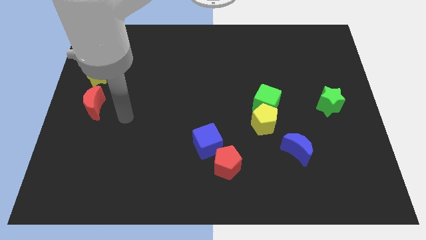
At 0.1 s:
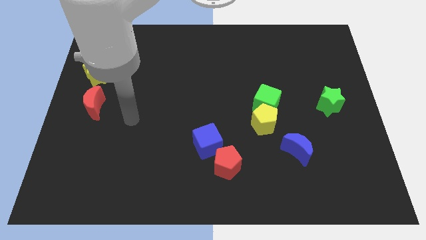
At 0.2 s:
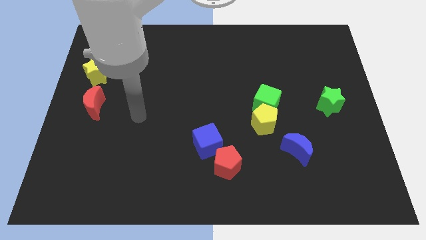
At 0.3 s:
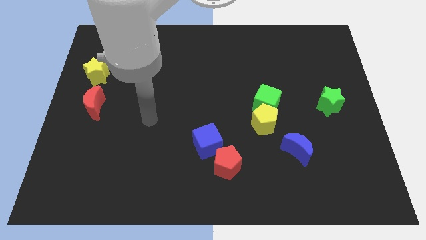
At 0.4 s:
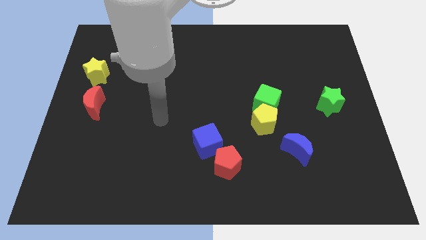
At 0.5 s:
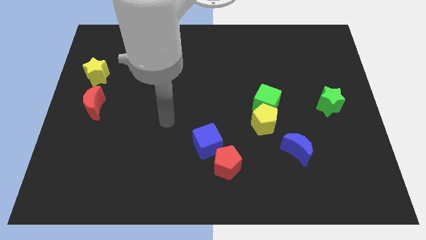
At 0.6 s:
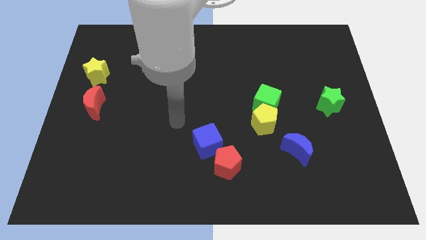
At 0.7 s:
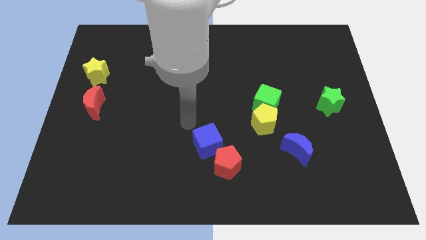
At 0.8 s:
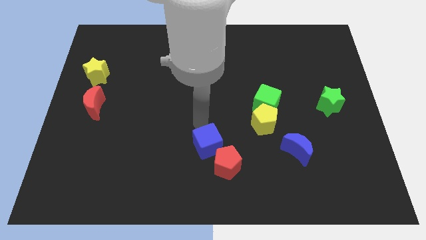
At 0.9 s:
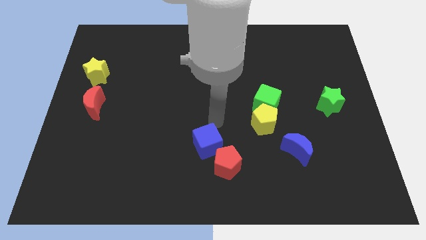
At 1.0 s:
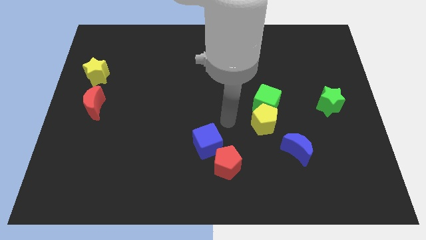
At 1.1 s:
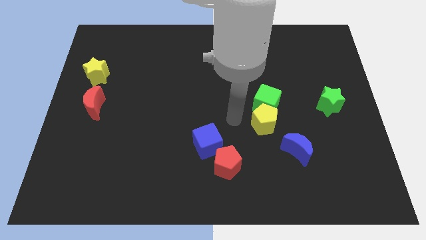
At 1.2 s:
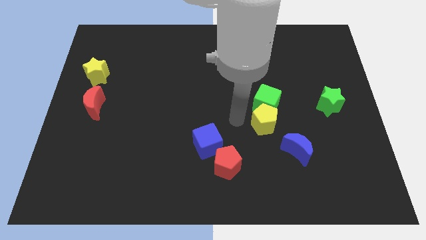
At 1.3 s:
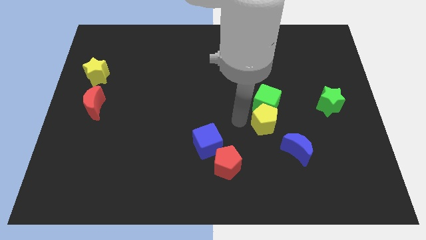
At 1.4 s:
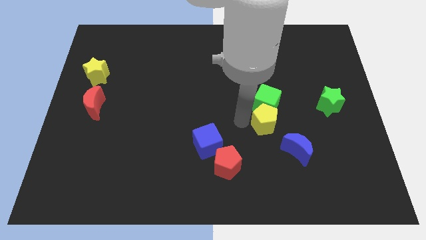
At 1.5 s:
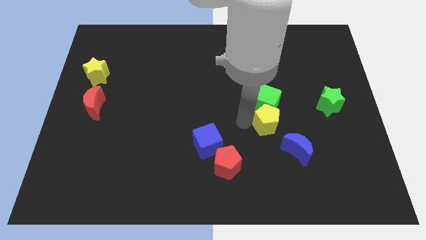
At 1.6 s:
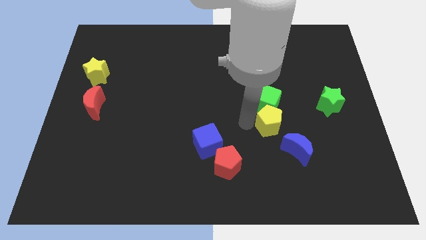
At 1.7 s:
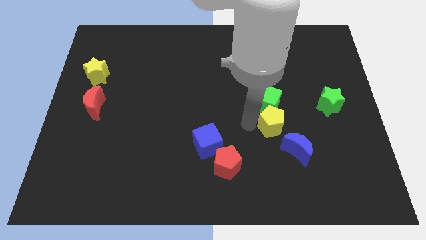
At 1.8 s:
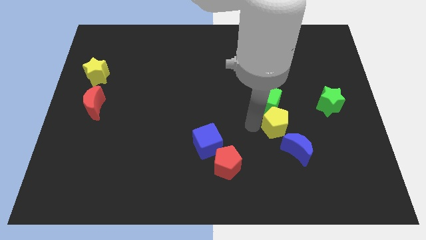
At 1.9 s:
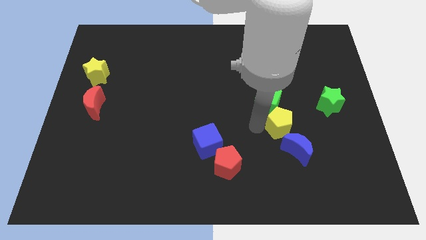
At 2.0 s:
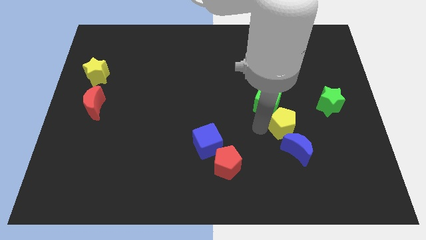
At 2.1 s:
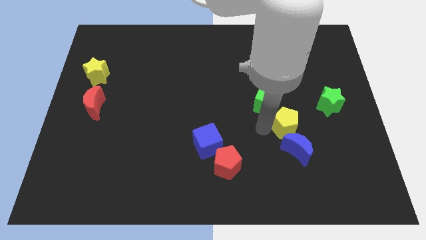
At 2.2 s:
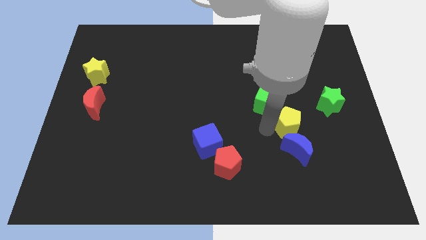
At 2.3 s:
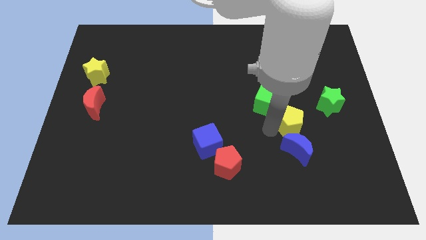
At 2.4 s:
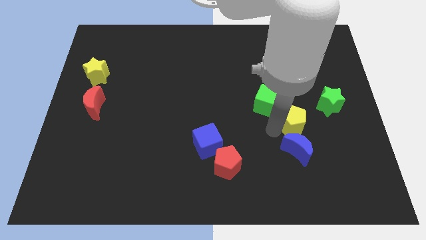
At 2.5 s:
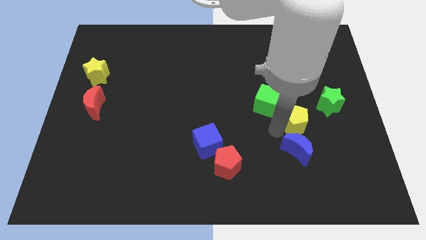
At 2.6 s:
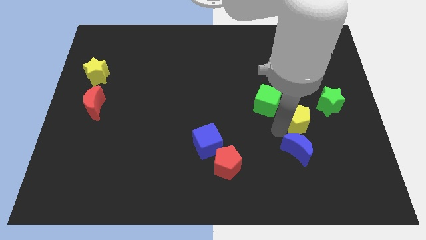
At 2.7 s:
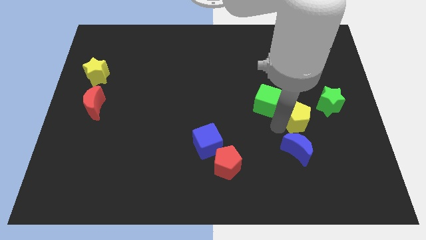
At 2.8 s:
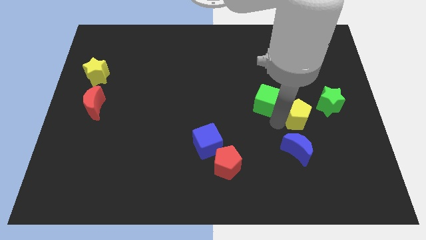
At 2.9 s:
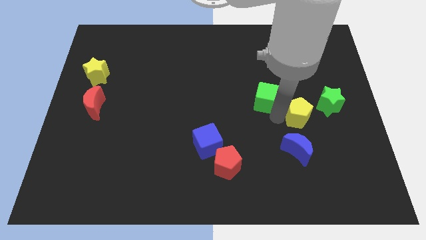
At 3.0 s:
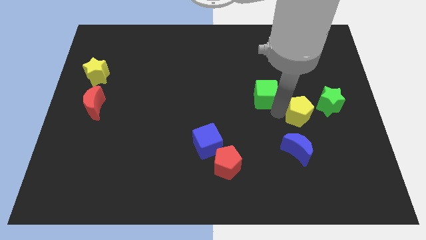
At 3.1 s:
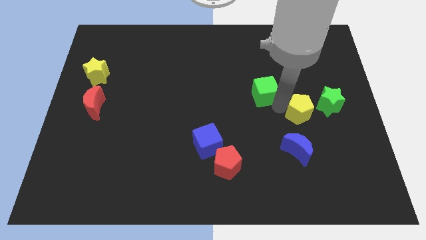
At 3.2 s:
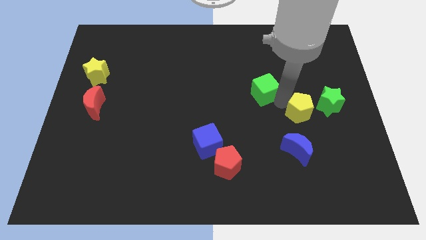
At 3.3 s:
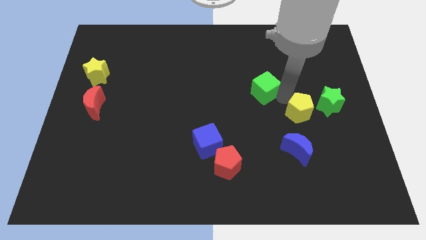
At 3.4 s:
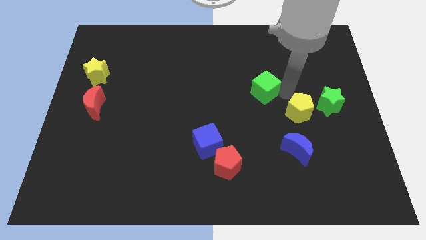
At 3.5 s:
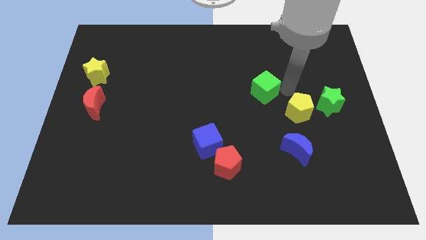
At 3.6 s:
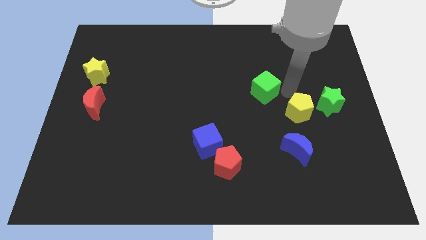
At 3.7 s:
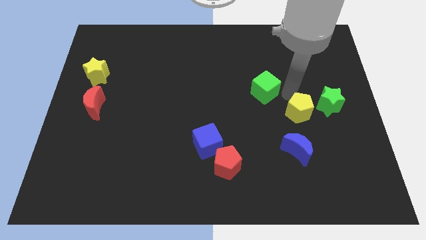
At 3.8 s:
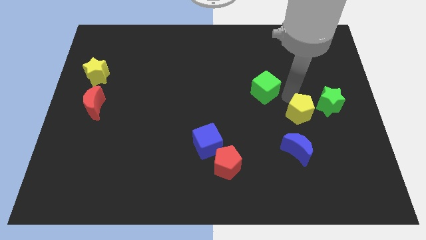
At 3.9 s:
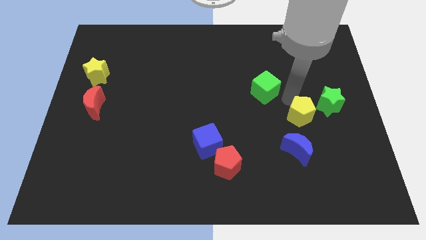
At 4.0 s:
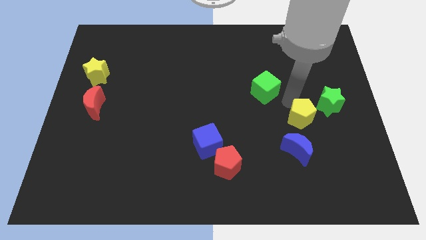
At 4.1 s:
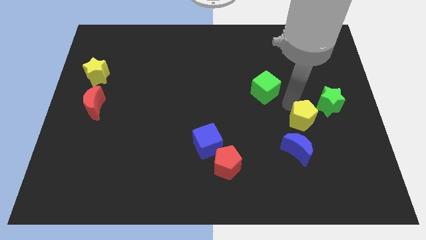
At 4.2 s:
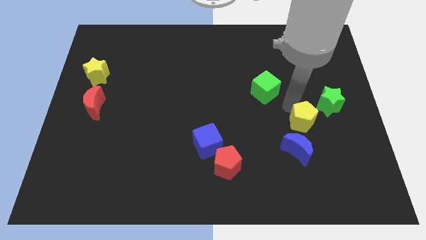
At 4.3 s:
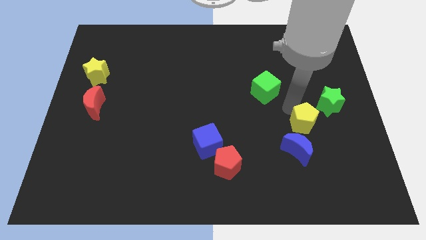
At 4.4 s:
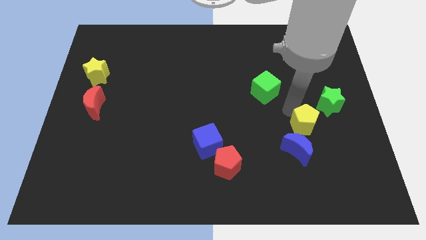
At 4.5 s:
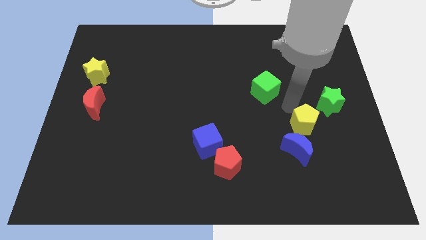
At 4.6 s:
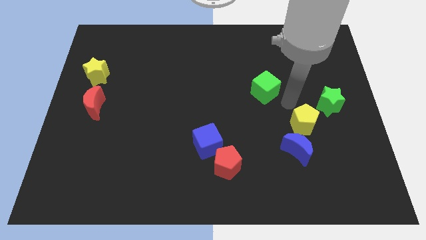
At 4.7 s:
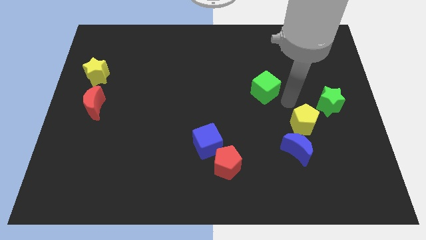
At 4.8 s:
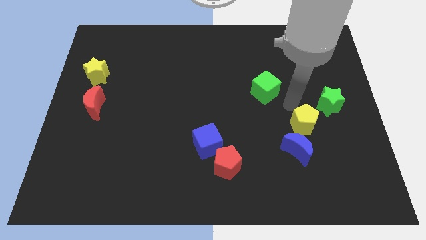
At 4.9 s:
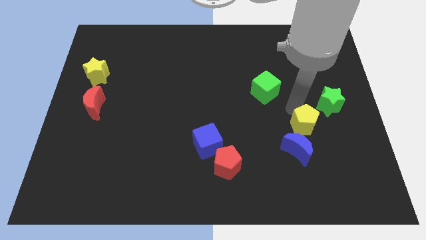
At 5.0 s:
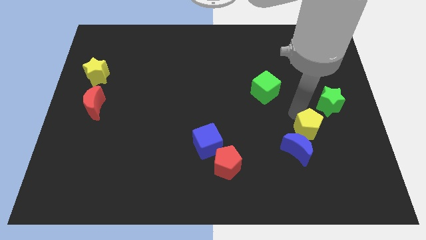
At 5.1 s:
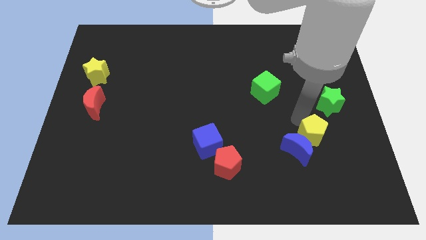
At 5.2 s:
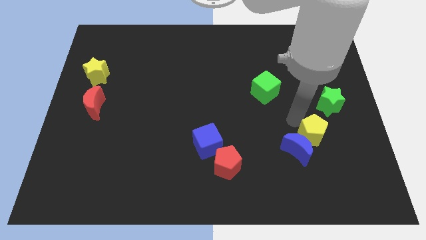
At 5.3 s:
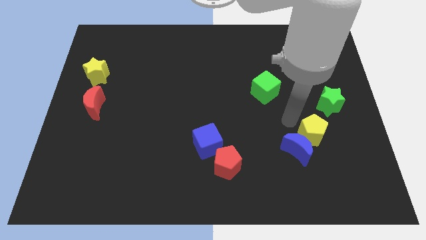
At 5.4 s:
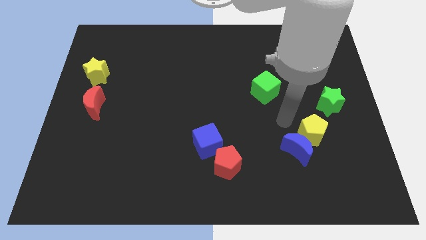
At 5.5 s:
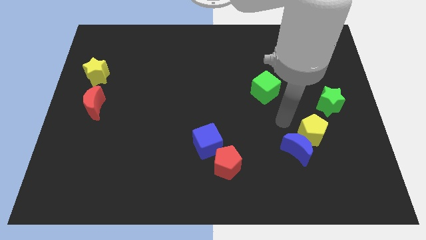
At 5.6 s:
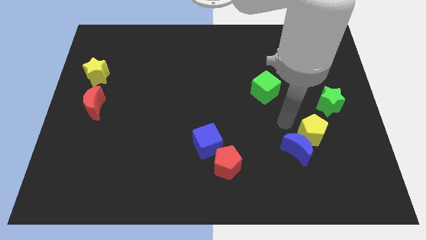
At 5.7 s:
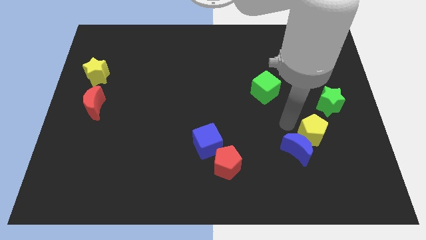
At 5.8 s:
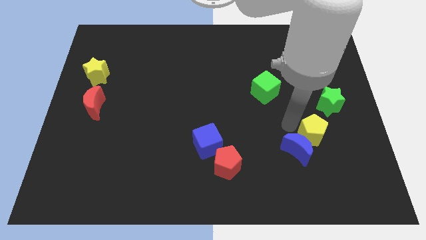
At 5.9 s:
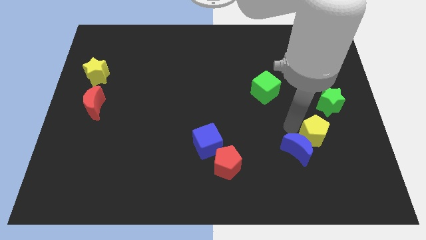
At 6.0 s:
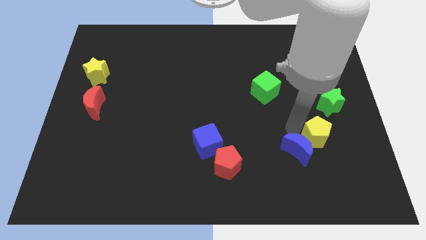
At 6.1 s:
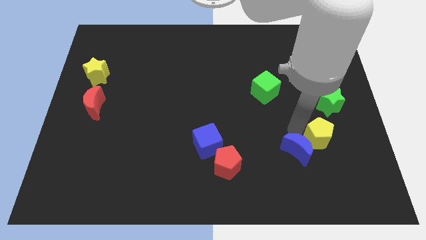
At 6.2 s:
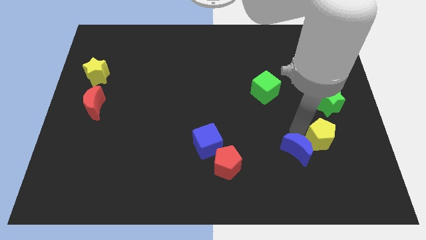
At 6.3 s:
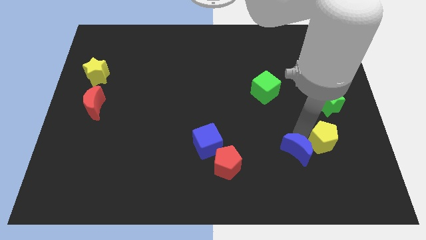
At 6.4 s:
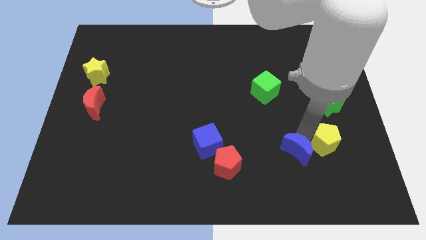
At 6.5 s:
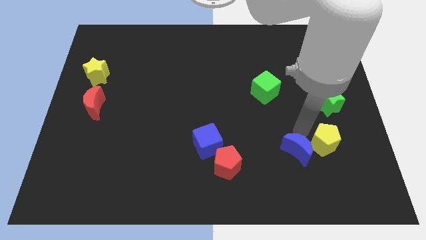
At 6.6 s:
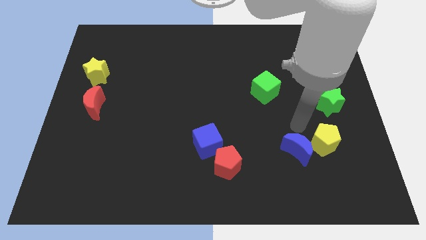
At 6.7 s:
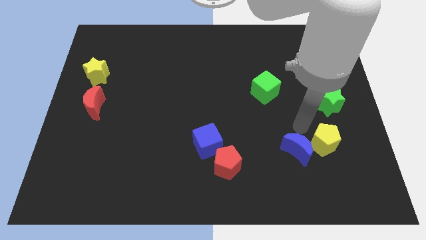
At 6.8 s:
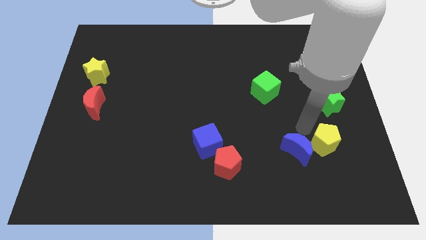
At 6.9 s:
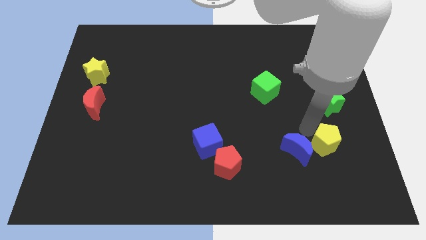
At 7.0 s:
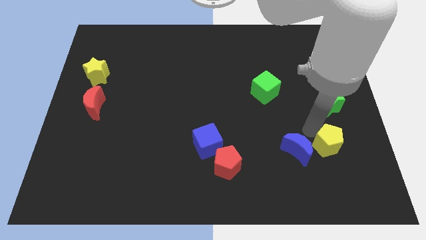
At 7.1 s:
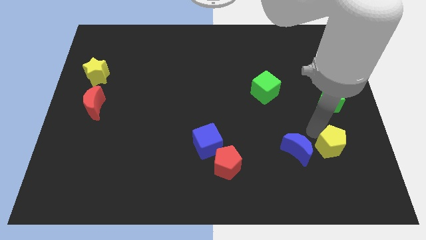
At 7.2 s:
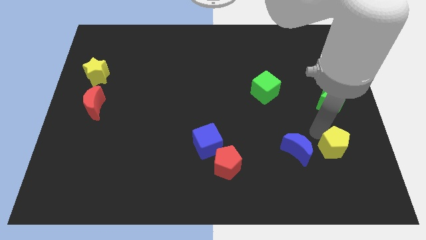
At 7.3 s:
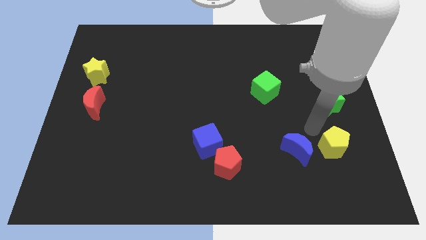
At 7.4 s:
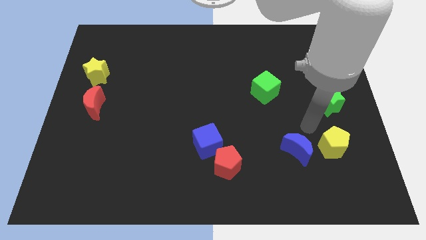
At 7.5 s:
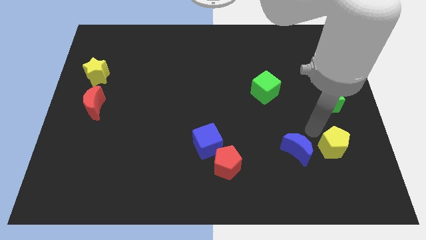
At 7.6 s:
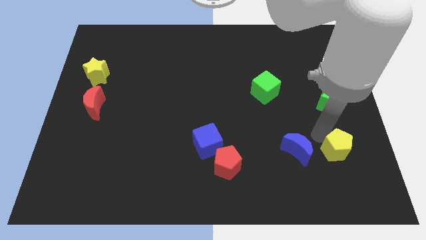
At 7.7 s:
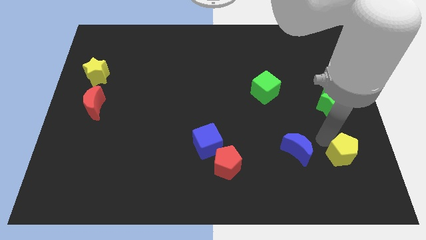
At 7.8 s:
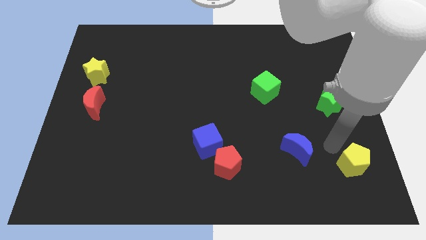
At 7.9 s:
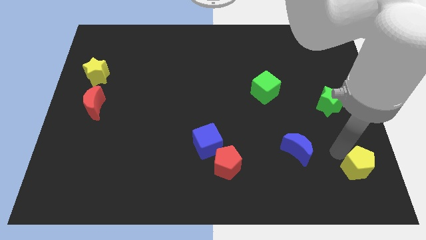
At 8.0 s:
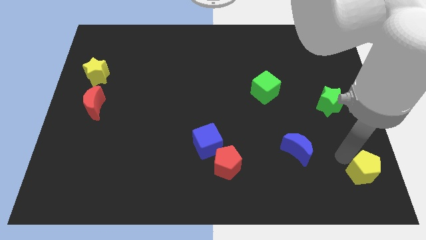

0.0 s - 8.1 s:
put the yellow pentagon to the lower right corner
